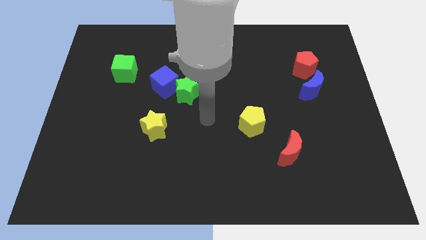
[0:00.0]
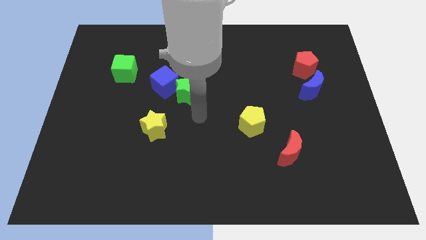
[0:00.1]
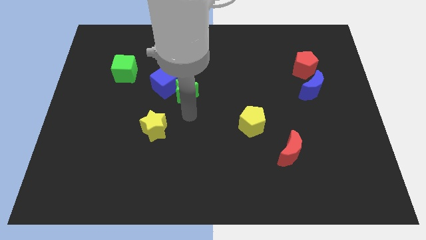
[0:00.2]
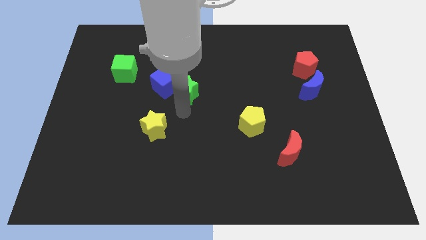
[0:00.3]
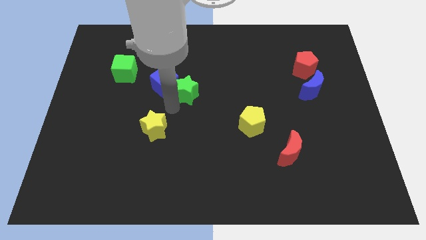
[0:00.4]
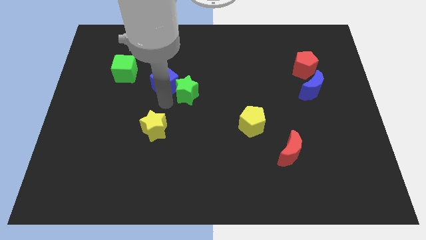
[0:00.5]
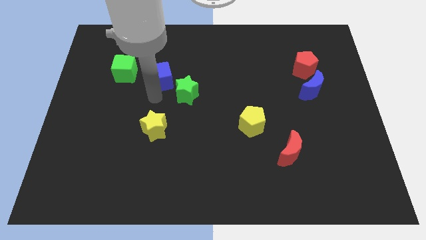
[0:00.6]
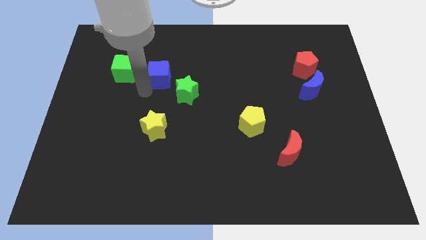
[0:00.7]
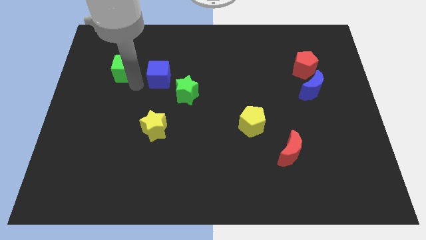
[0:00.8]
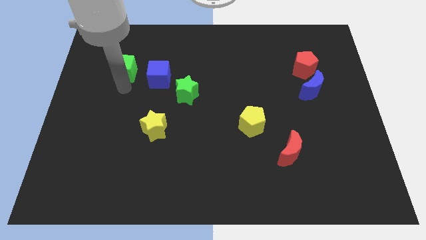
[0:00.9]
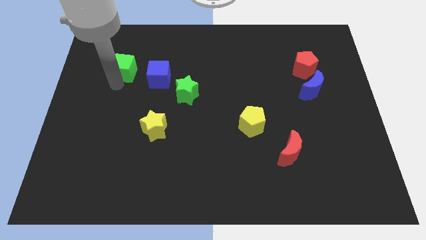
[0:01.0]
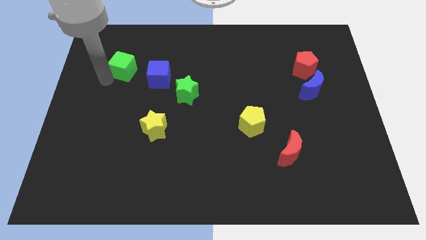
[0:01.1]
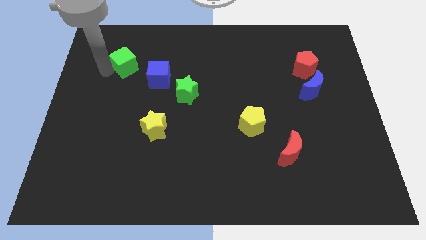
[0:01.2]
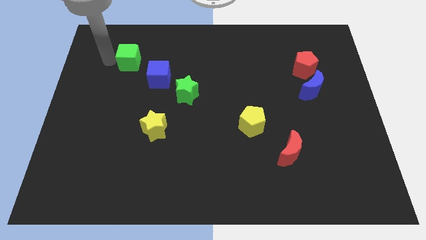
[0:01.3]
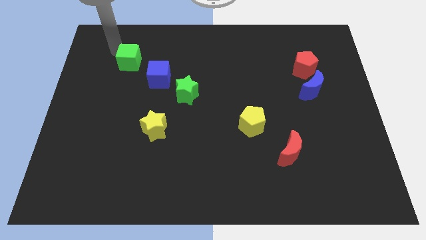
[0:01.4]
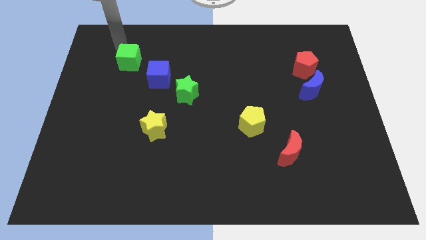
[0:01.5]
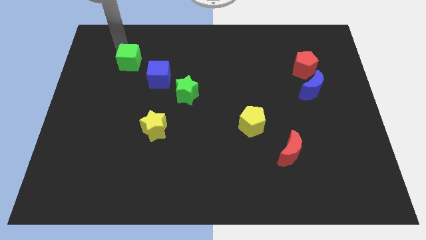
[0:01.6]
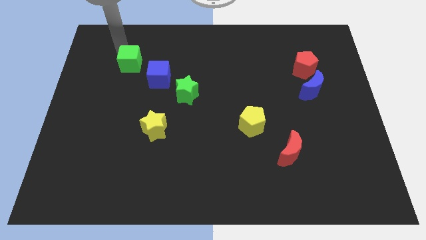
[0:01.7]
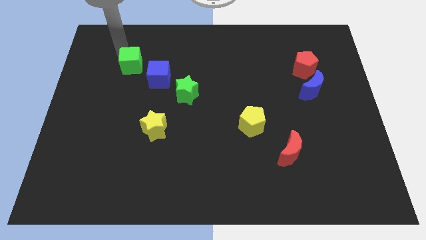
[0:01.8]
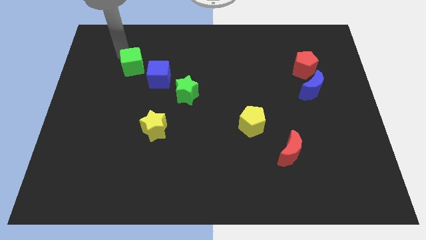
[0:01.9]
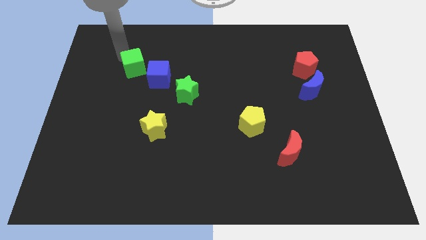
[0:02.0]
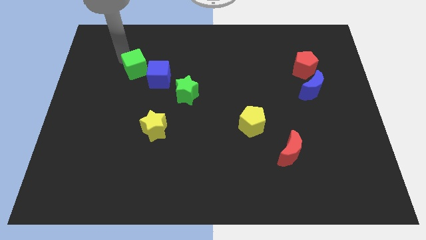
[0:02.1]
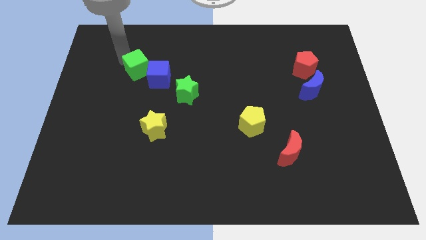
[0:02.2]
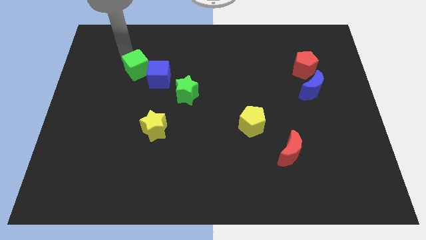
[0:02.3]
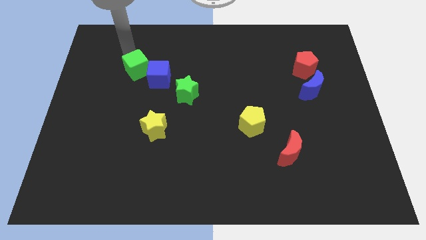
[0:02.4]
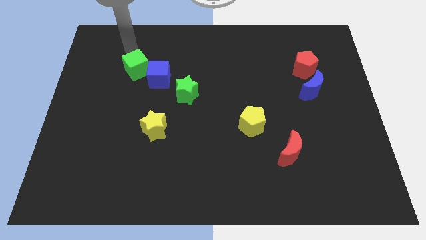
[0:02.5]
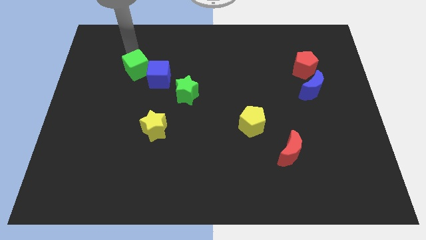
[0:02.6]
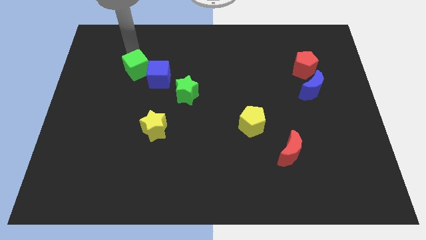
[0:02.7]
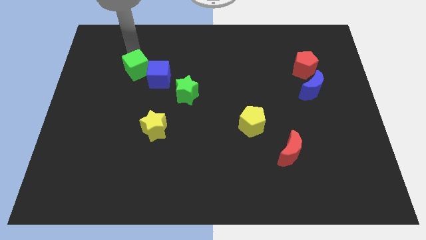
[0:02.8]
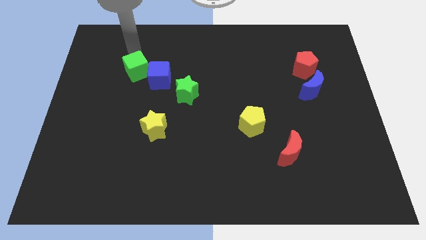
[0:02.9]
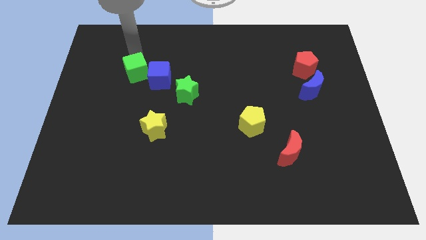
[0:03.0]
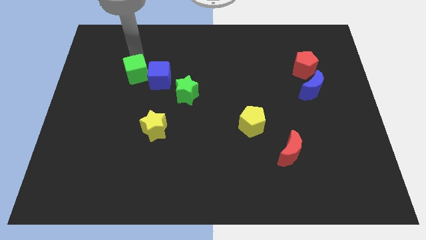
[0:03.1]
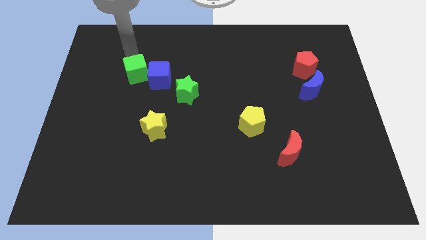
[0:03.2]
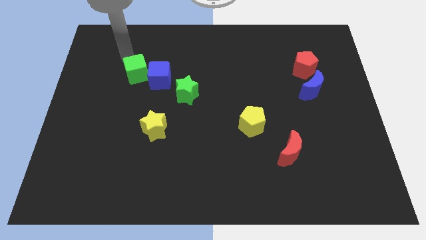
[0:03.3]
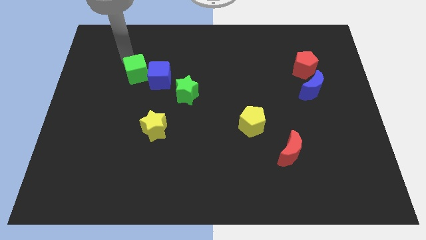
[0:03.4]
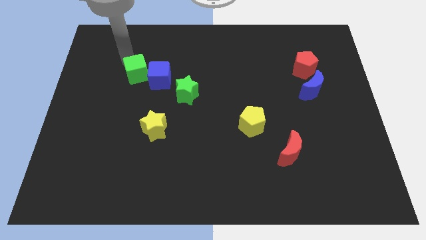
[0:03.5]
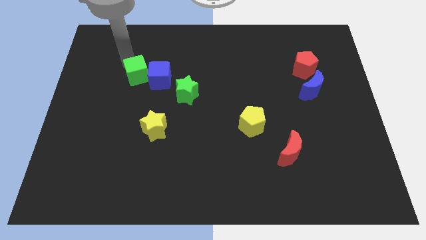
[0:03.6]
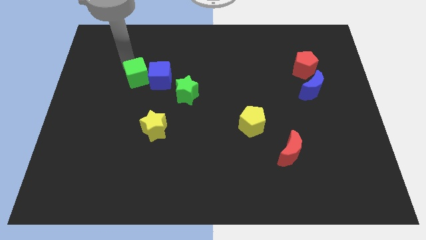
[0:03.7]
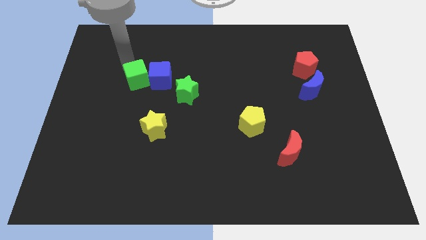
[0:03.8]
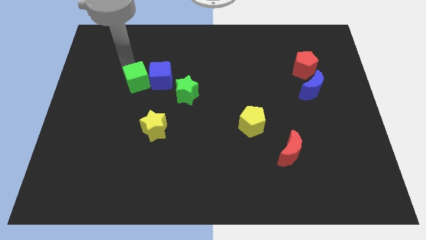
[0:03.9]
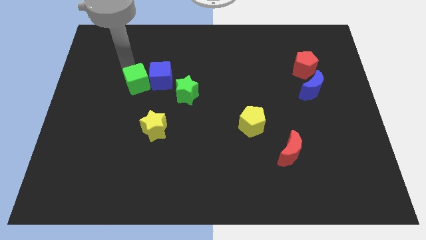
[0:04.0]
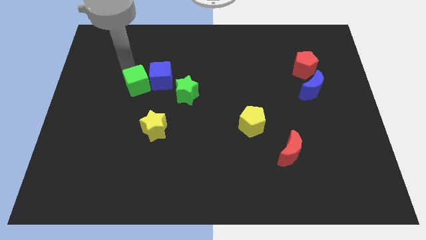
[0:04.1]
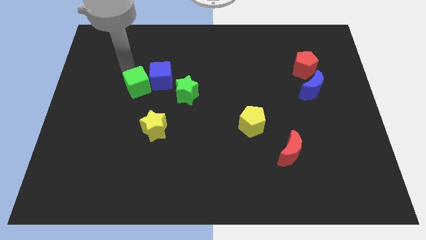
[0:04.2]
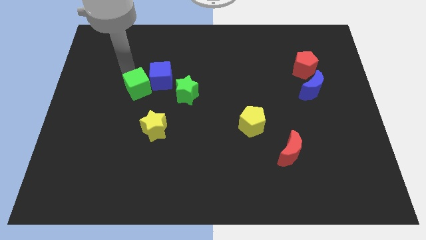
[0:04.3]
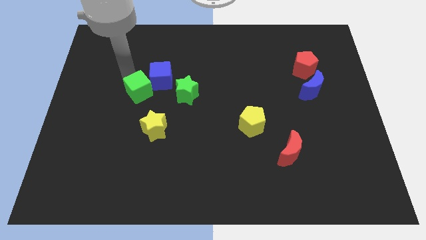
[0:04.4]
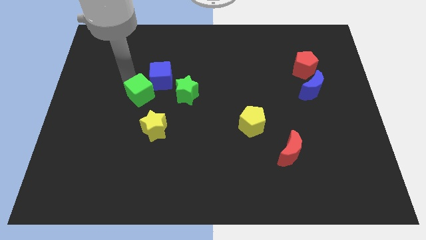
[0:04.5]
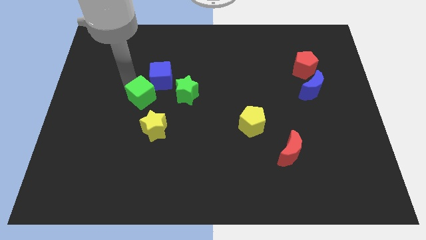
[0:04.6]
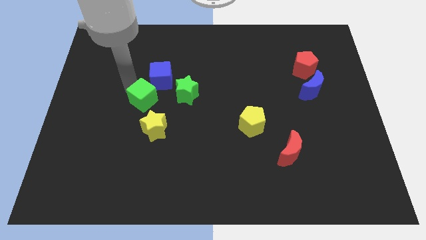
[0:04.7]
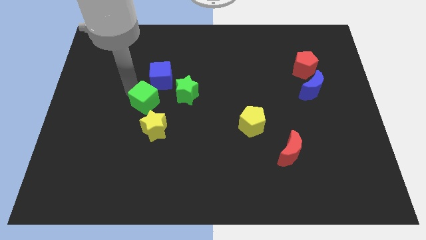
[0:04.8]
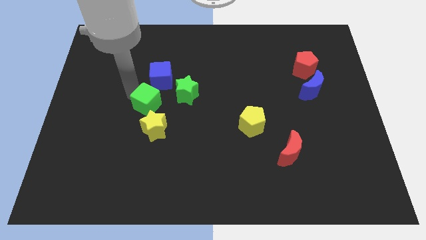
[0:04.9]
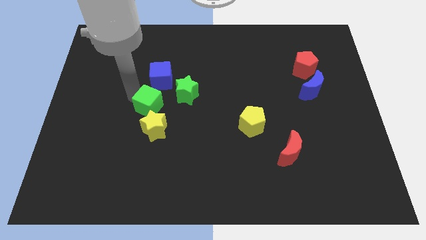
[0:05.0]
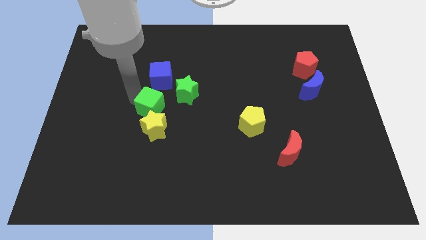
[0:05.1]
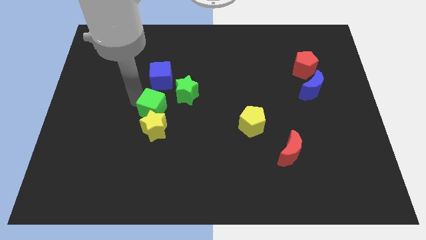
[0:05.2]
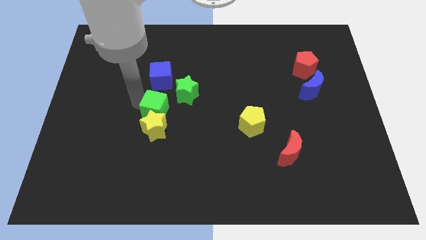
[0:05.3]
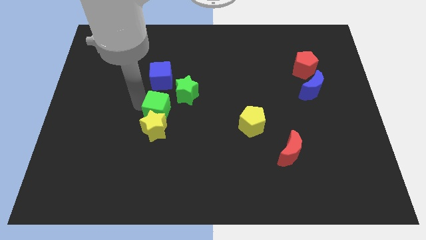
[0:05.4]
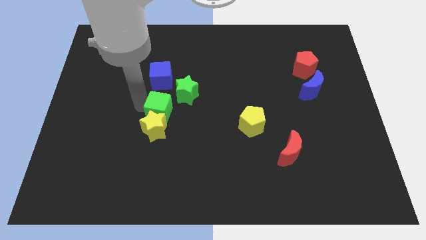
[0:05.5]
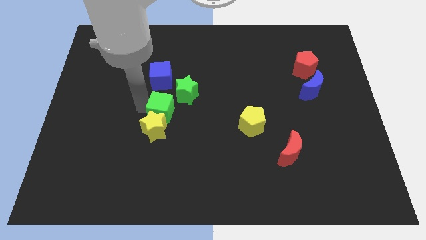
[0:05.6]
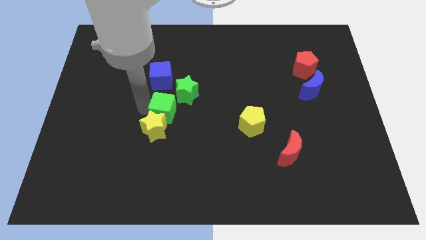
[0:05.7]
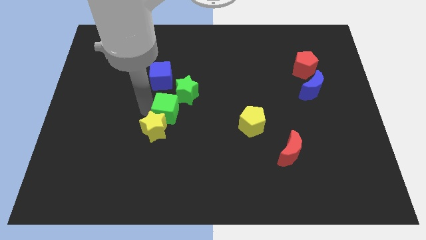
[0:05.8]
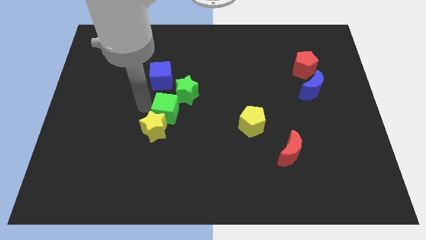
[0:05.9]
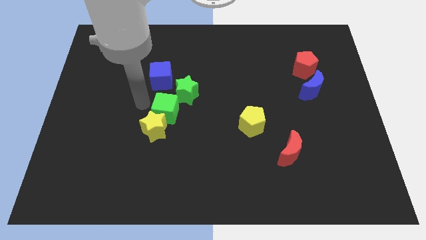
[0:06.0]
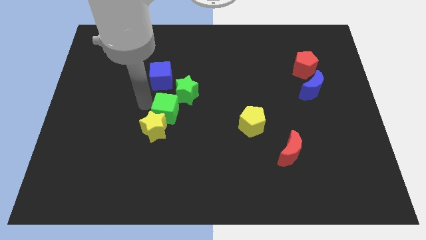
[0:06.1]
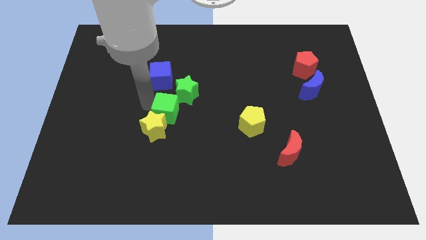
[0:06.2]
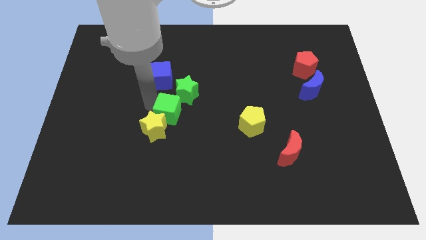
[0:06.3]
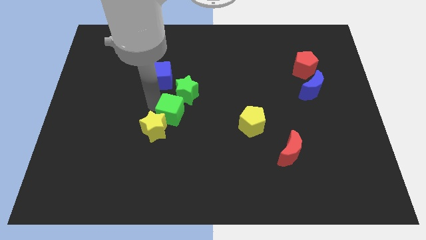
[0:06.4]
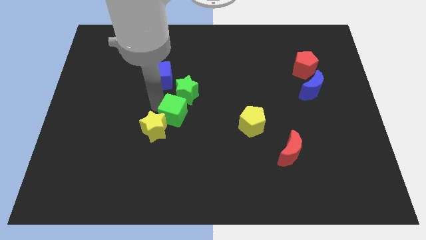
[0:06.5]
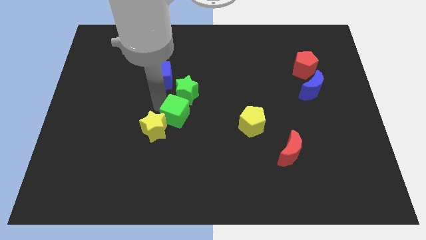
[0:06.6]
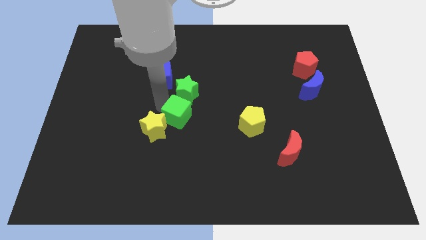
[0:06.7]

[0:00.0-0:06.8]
move the green cube diagonally downwards and right

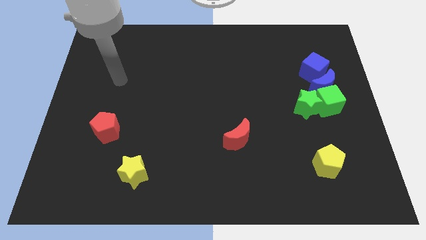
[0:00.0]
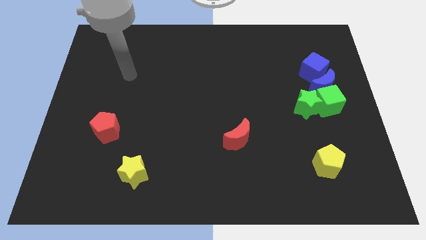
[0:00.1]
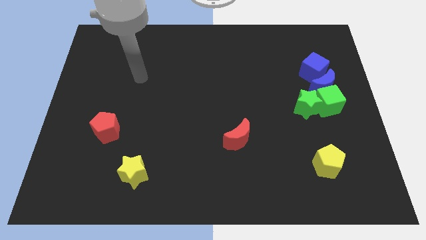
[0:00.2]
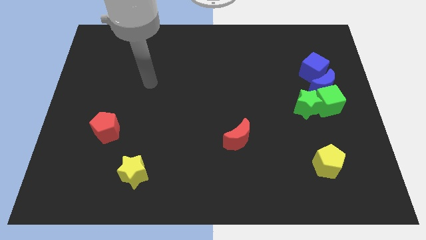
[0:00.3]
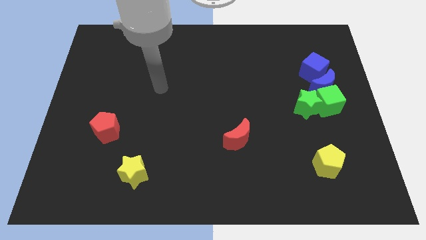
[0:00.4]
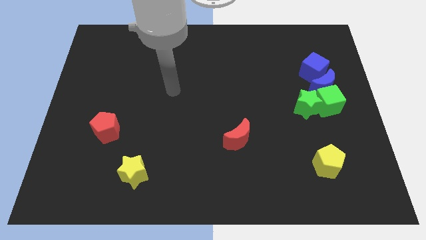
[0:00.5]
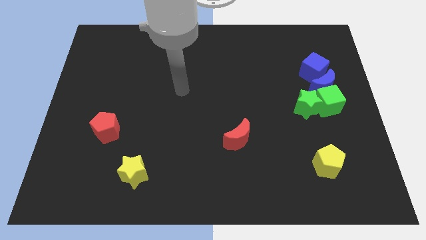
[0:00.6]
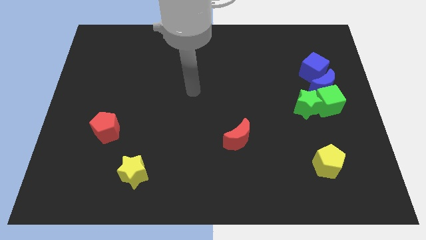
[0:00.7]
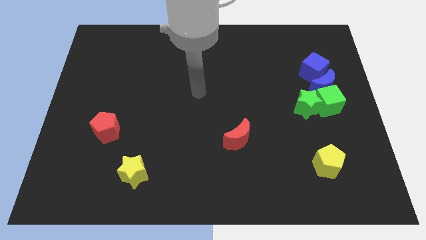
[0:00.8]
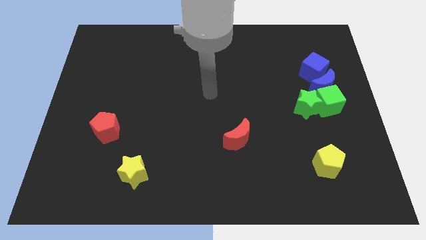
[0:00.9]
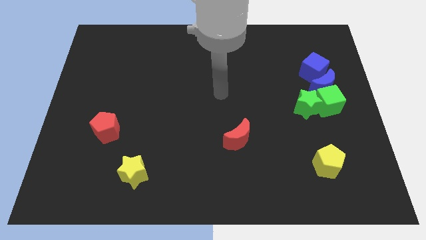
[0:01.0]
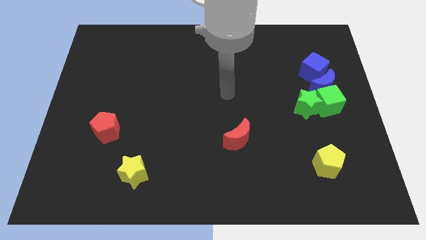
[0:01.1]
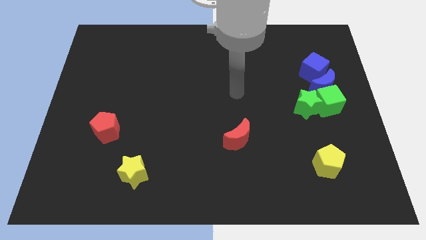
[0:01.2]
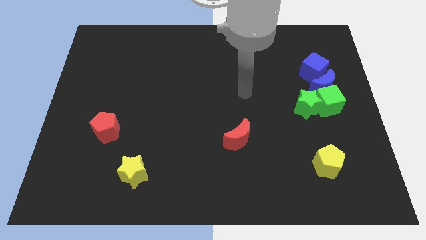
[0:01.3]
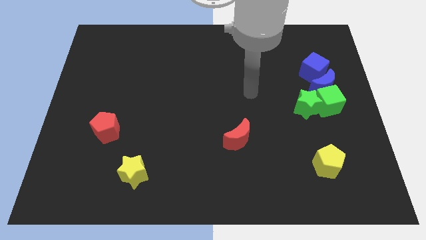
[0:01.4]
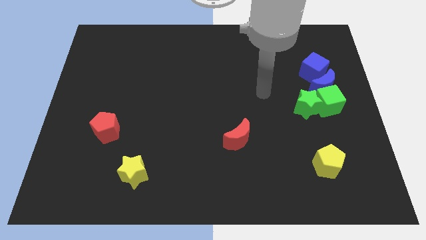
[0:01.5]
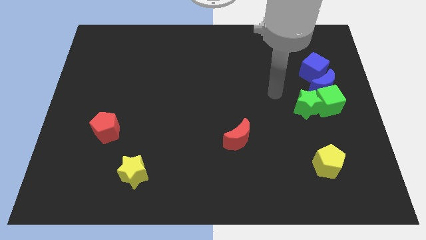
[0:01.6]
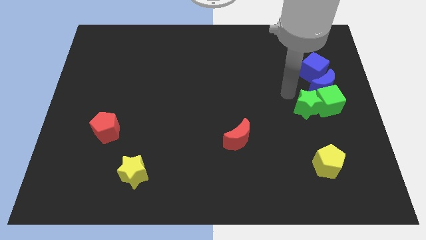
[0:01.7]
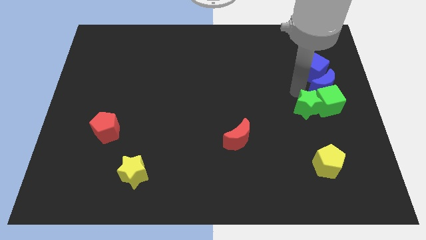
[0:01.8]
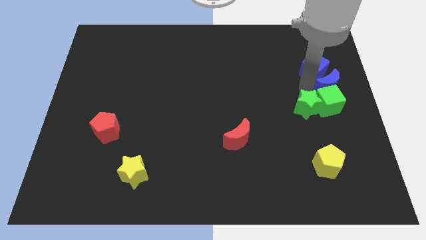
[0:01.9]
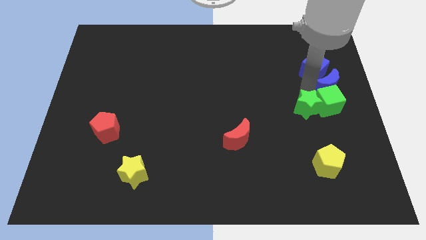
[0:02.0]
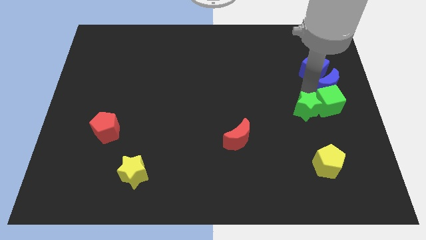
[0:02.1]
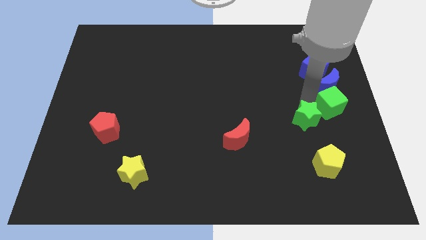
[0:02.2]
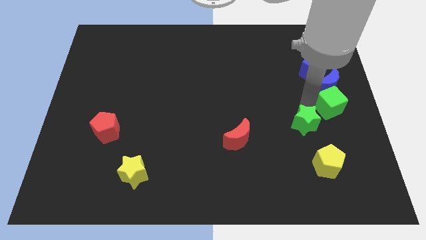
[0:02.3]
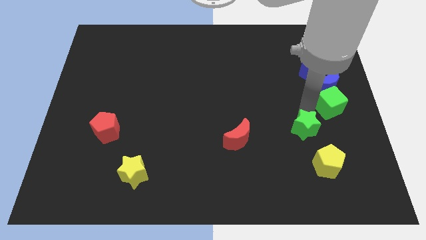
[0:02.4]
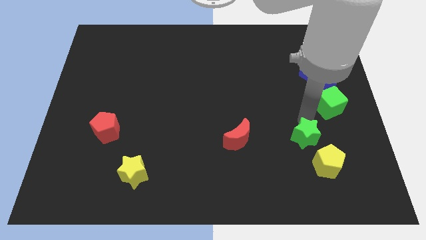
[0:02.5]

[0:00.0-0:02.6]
slide the green star a little bit downwards
